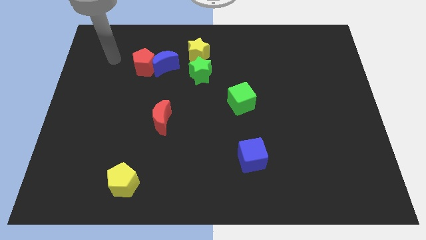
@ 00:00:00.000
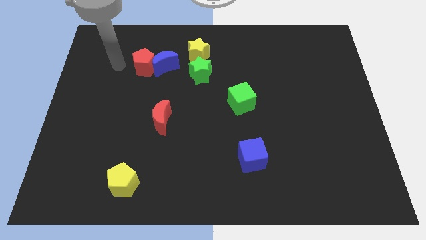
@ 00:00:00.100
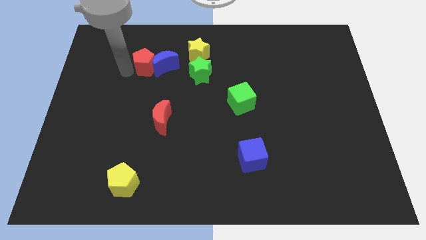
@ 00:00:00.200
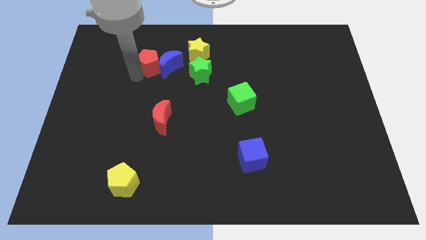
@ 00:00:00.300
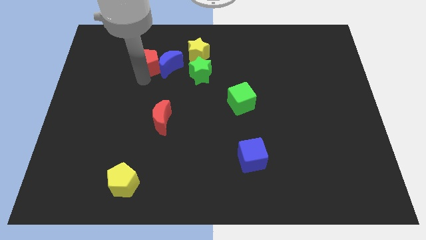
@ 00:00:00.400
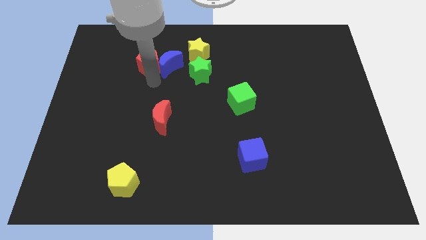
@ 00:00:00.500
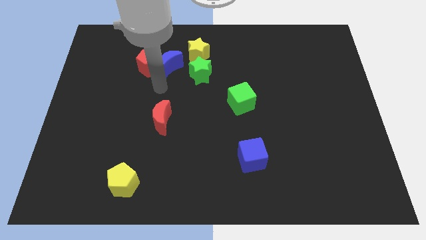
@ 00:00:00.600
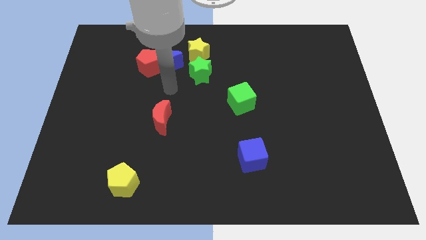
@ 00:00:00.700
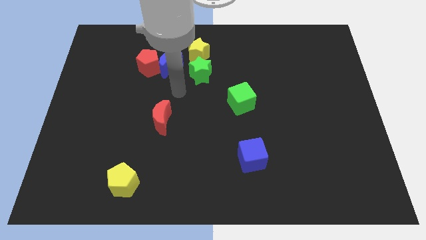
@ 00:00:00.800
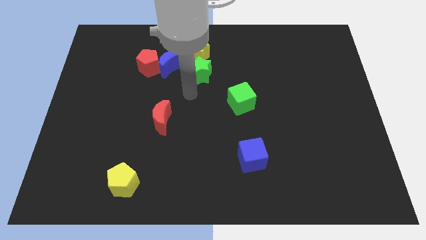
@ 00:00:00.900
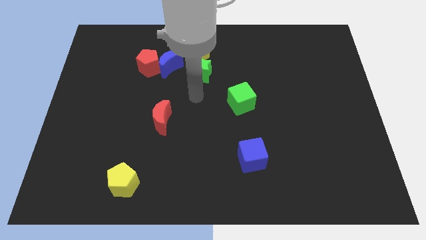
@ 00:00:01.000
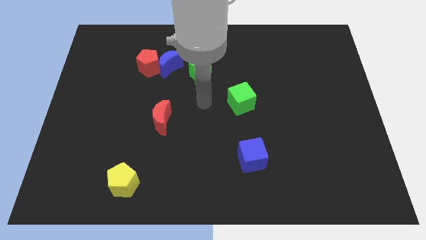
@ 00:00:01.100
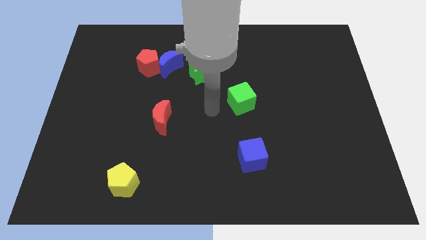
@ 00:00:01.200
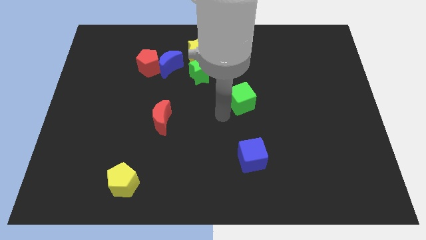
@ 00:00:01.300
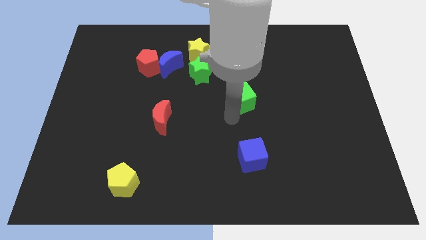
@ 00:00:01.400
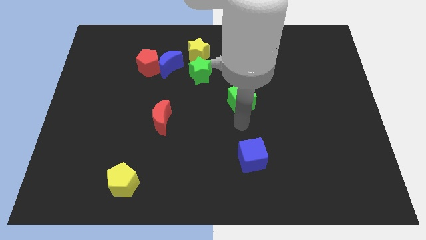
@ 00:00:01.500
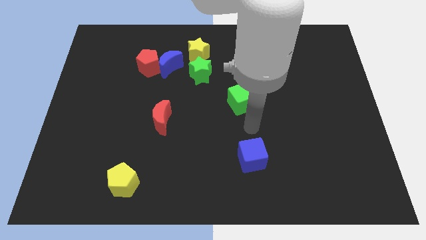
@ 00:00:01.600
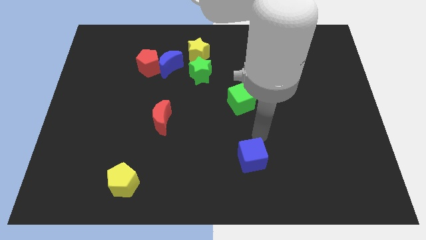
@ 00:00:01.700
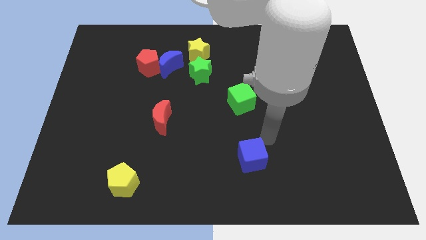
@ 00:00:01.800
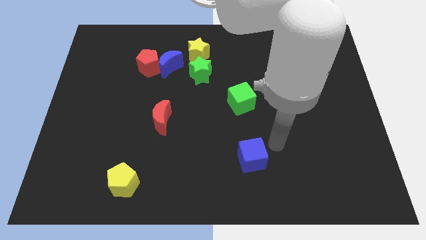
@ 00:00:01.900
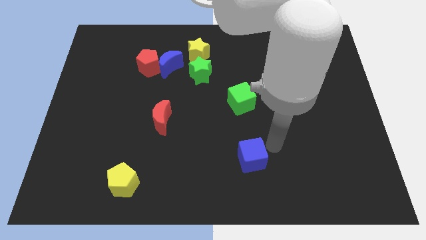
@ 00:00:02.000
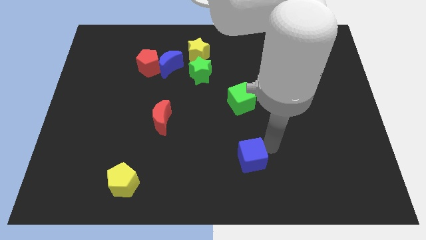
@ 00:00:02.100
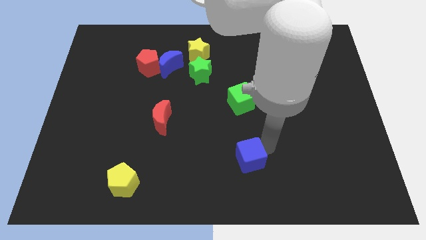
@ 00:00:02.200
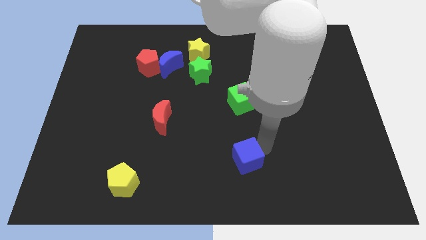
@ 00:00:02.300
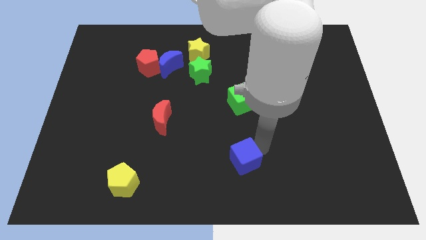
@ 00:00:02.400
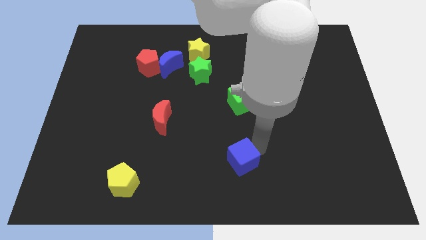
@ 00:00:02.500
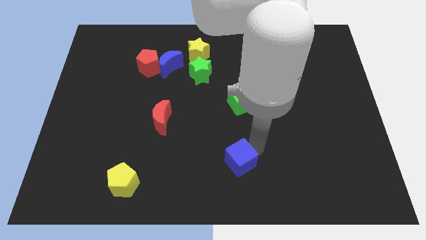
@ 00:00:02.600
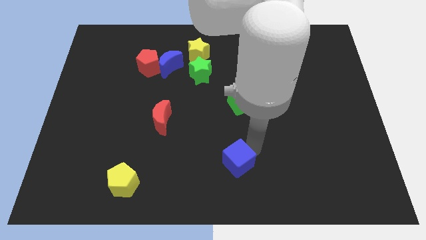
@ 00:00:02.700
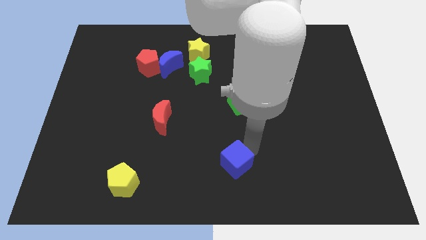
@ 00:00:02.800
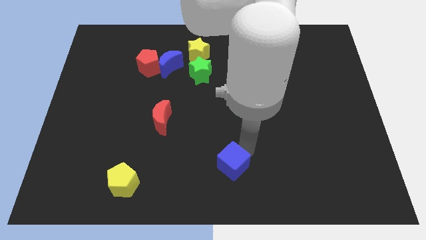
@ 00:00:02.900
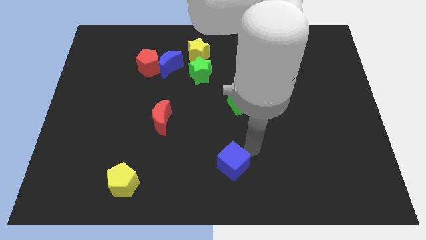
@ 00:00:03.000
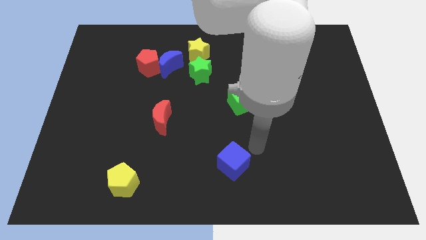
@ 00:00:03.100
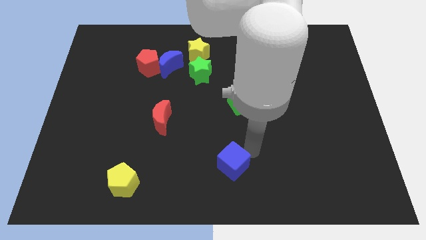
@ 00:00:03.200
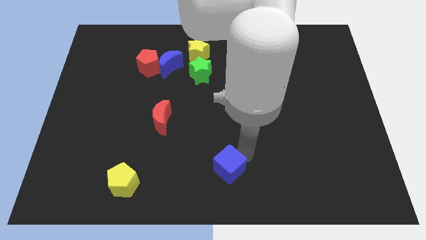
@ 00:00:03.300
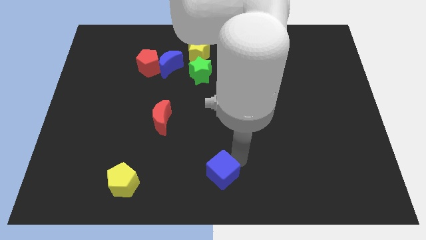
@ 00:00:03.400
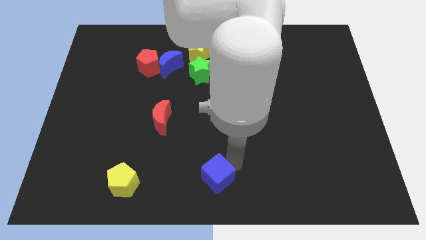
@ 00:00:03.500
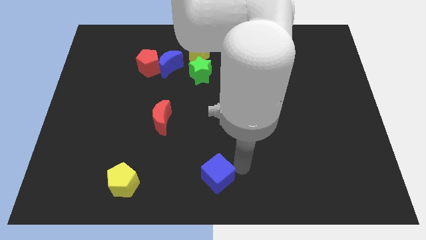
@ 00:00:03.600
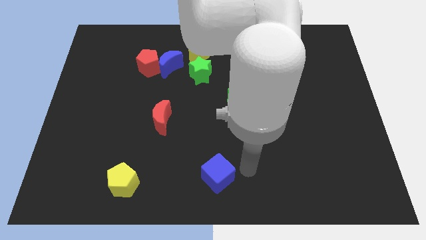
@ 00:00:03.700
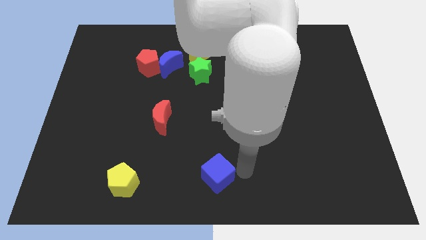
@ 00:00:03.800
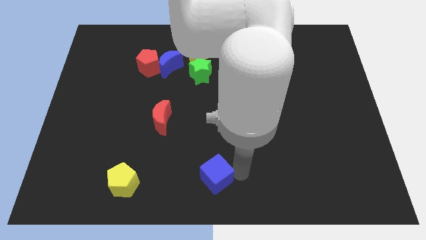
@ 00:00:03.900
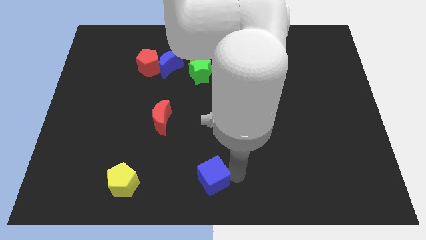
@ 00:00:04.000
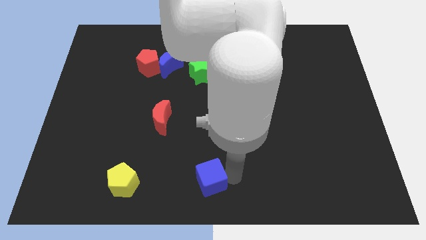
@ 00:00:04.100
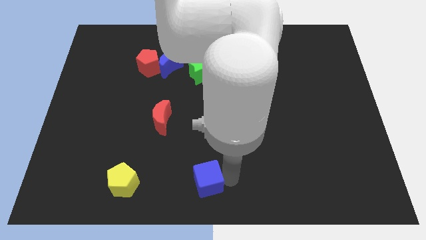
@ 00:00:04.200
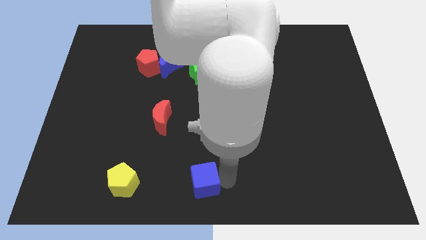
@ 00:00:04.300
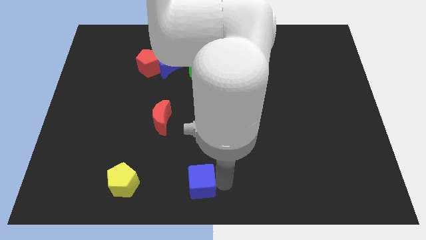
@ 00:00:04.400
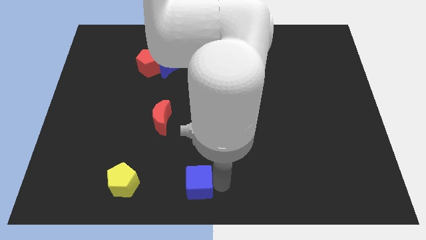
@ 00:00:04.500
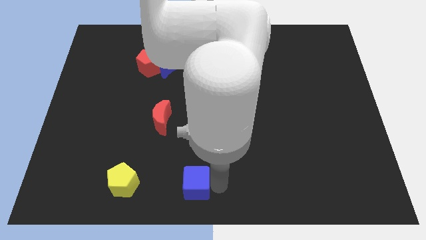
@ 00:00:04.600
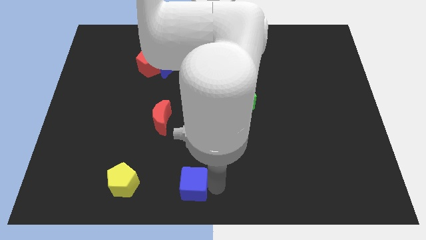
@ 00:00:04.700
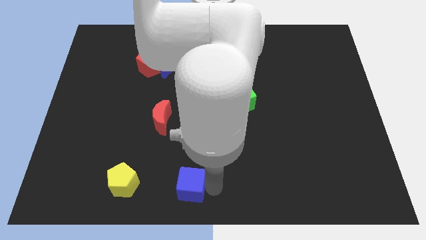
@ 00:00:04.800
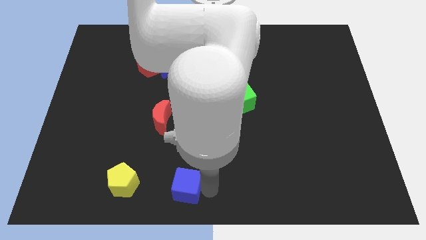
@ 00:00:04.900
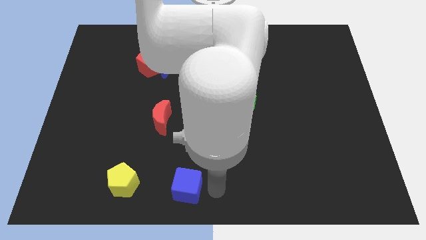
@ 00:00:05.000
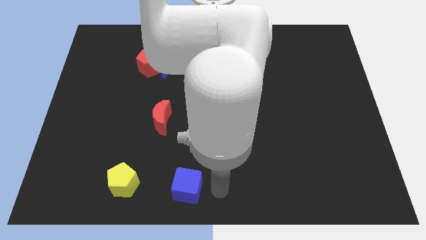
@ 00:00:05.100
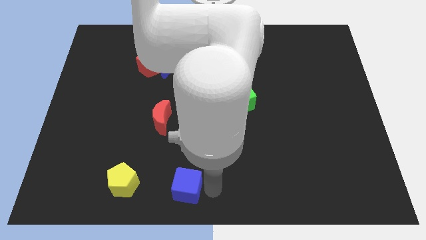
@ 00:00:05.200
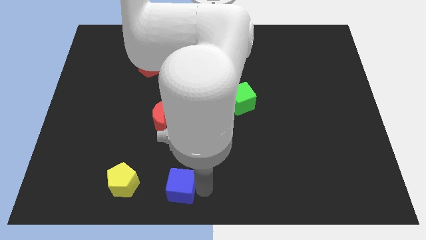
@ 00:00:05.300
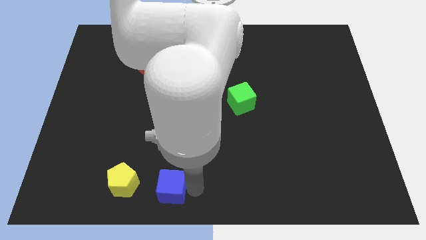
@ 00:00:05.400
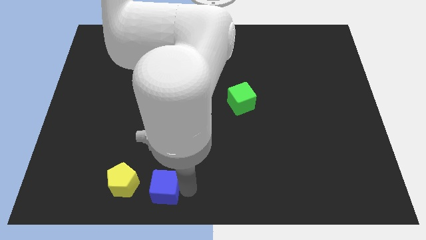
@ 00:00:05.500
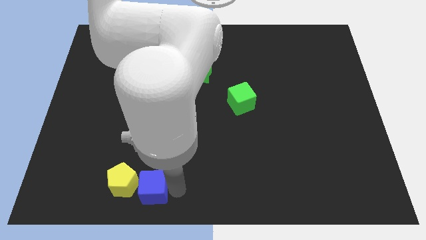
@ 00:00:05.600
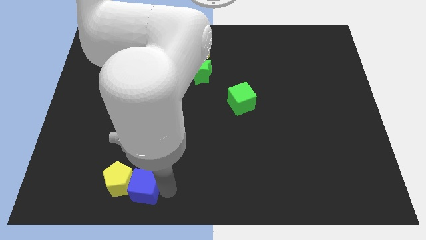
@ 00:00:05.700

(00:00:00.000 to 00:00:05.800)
move the blue cube towards the yellow pentagon
